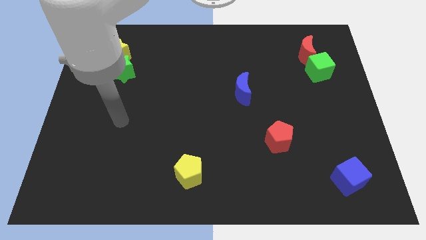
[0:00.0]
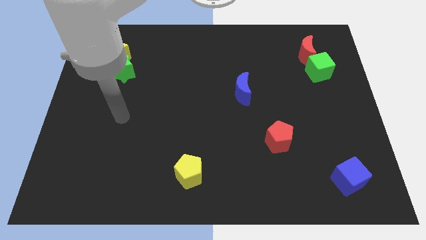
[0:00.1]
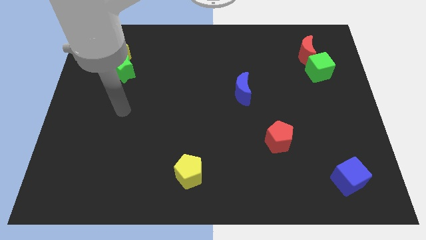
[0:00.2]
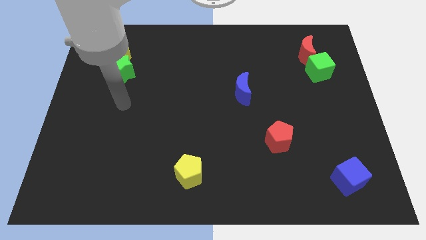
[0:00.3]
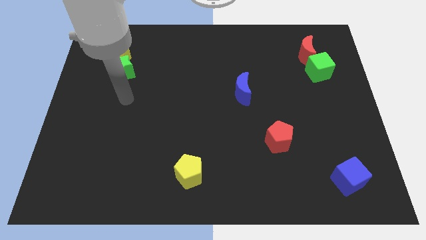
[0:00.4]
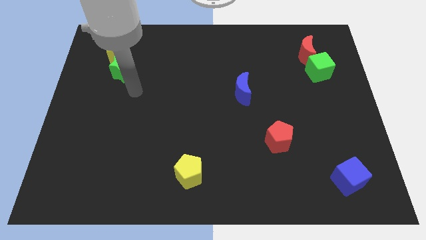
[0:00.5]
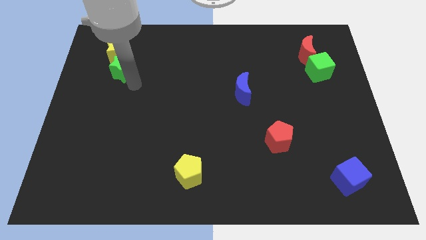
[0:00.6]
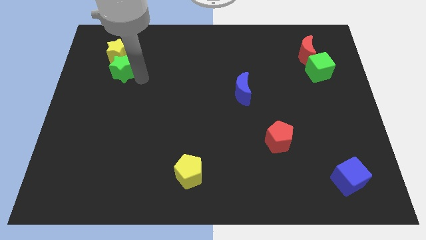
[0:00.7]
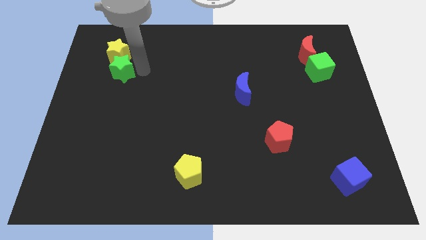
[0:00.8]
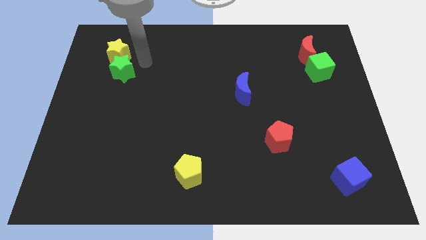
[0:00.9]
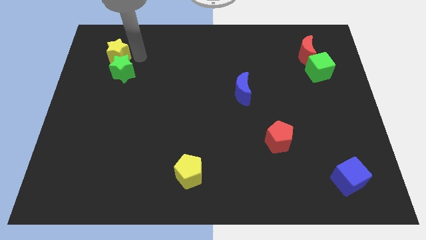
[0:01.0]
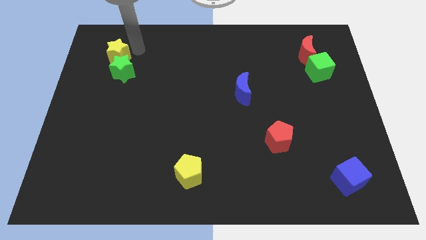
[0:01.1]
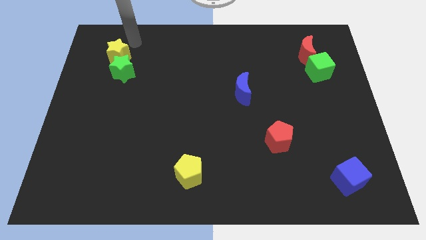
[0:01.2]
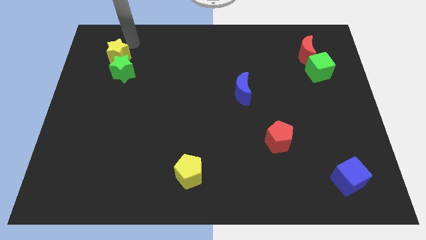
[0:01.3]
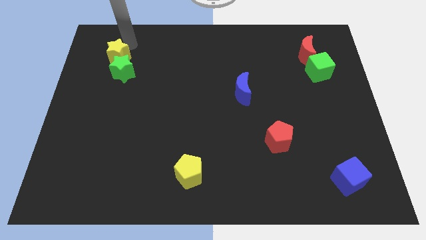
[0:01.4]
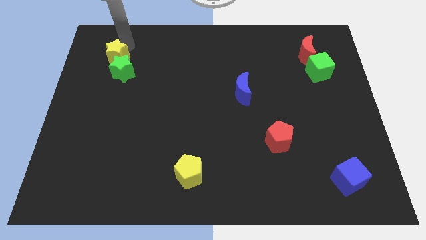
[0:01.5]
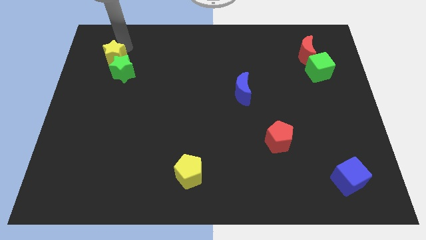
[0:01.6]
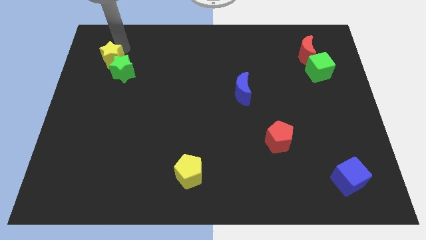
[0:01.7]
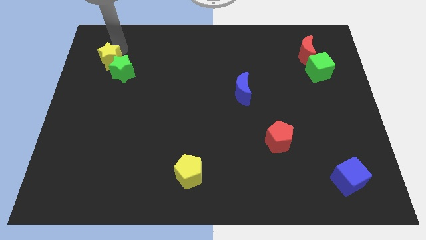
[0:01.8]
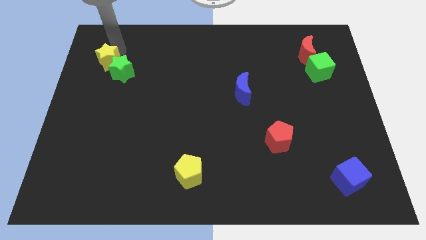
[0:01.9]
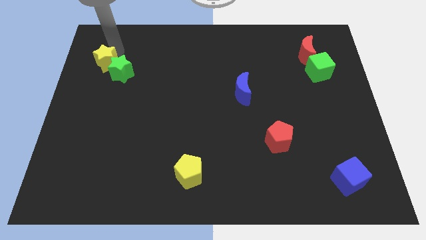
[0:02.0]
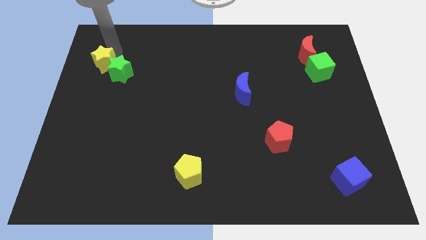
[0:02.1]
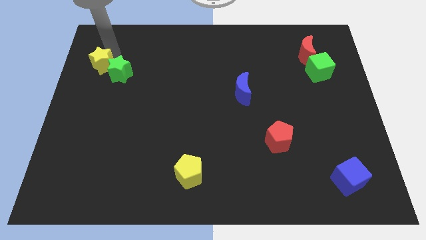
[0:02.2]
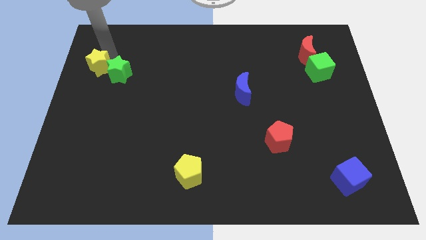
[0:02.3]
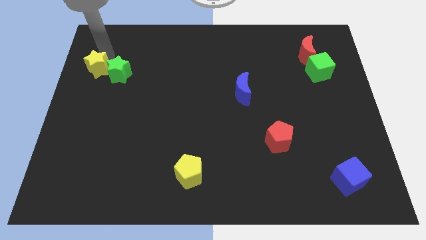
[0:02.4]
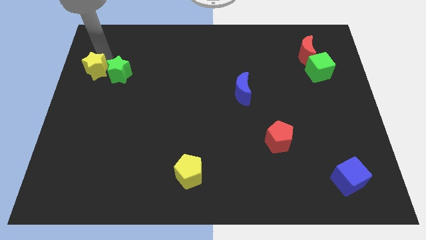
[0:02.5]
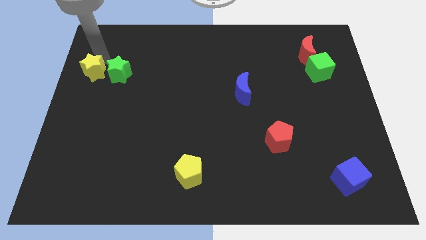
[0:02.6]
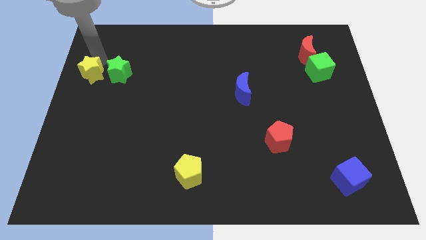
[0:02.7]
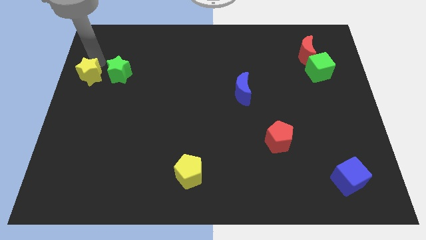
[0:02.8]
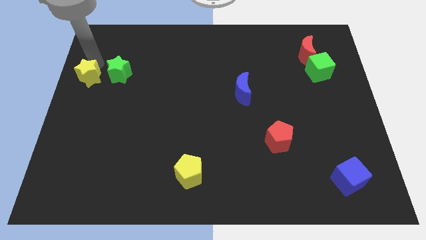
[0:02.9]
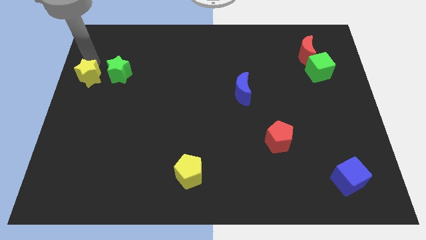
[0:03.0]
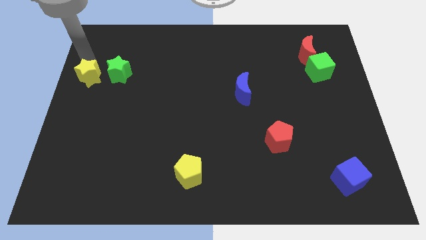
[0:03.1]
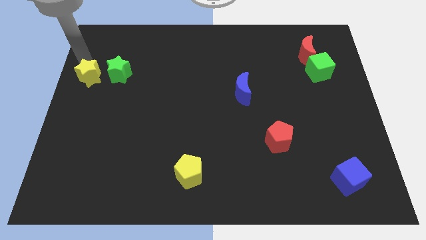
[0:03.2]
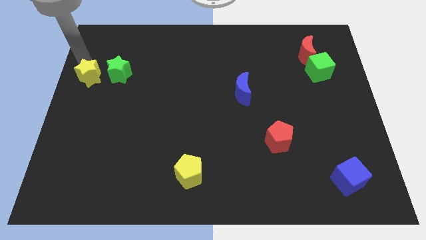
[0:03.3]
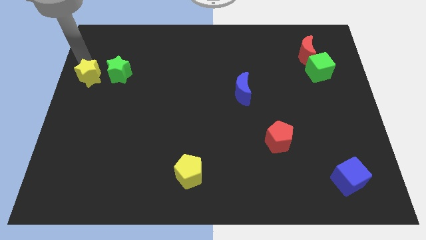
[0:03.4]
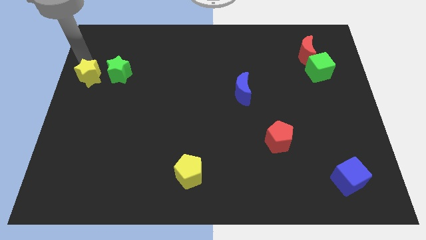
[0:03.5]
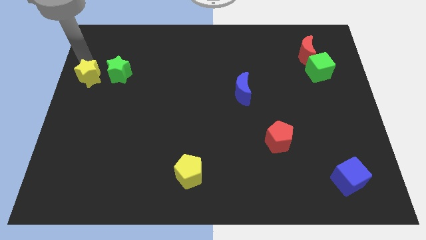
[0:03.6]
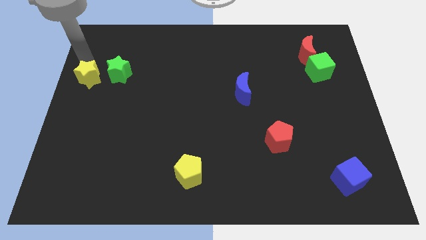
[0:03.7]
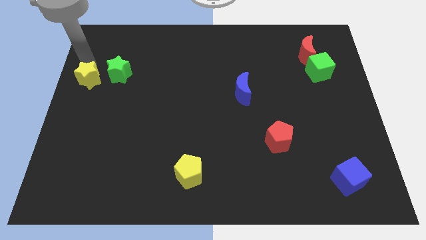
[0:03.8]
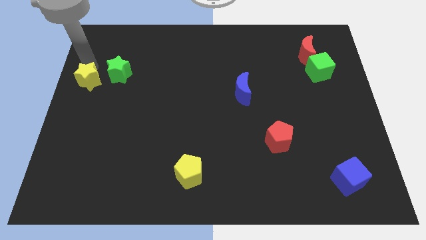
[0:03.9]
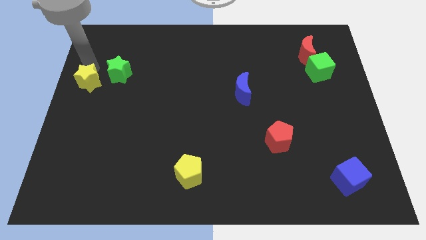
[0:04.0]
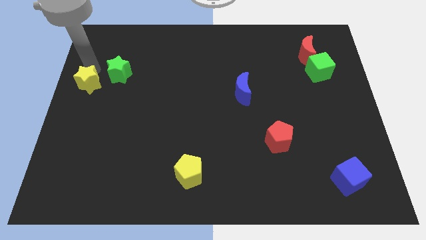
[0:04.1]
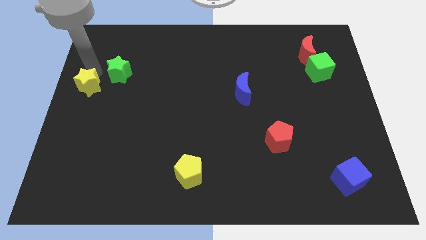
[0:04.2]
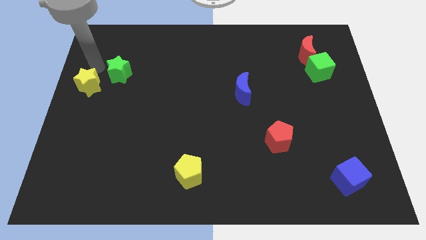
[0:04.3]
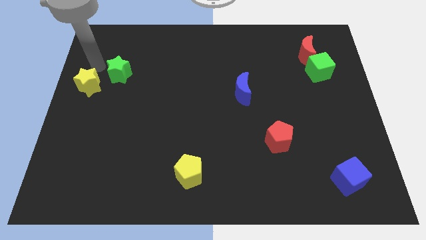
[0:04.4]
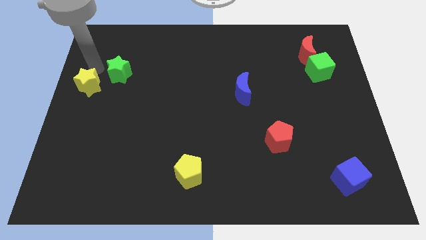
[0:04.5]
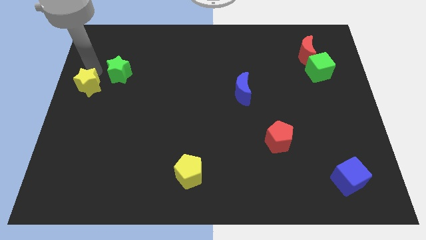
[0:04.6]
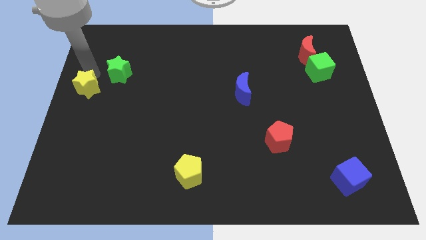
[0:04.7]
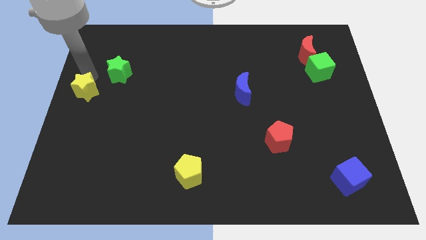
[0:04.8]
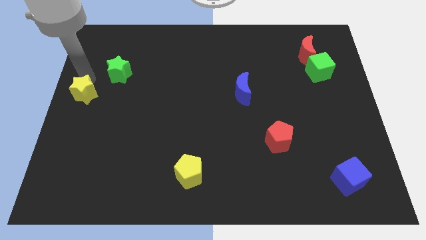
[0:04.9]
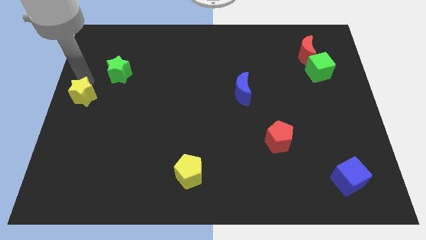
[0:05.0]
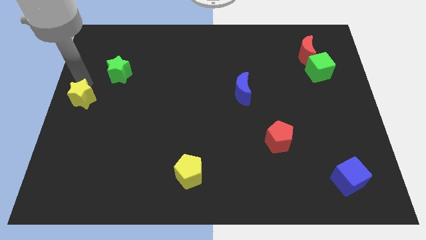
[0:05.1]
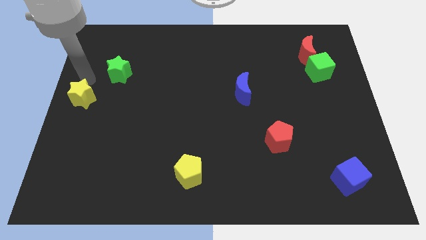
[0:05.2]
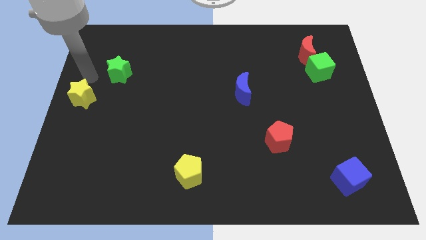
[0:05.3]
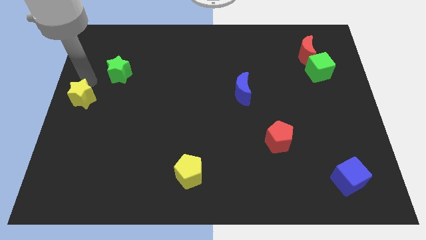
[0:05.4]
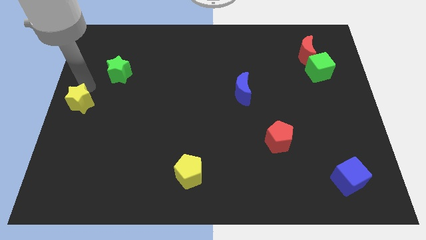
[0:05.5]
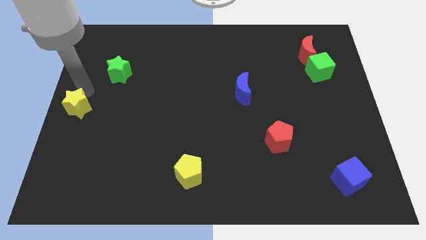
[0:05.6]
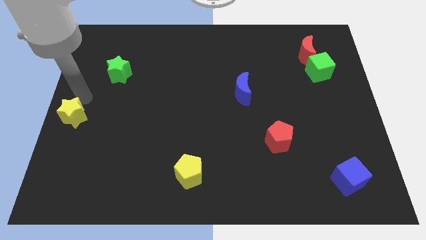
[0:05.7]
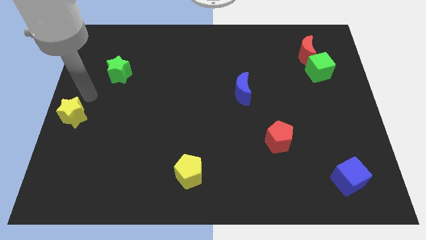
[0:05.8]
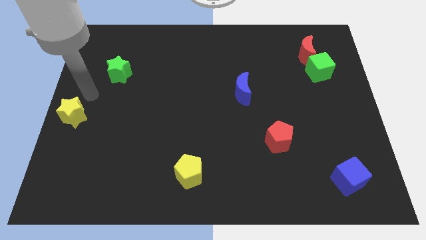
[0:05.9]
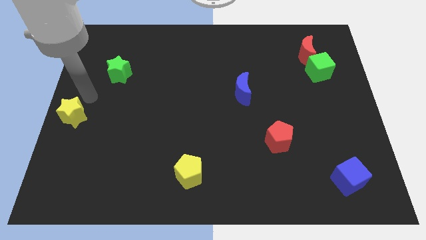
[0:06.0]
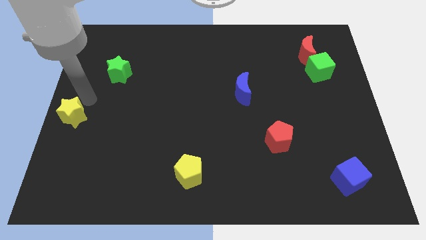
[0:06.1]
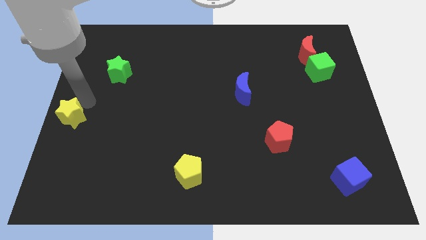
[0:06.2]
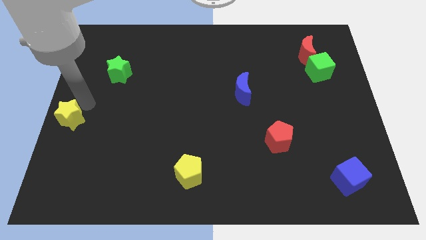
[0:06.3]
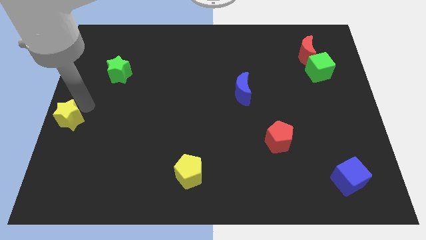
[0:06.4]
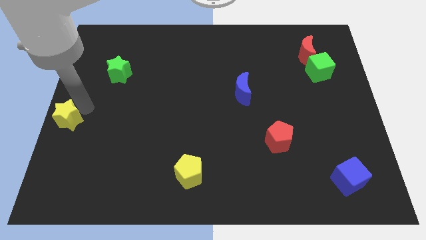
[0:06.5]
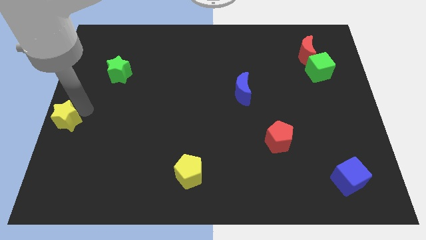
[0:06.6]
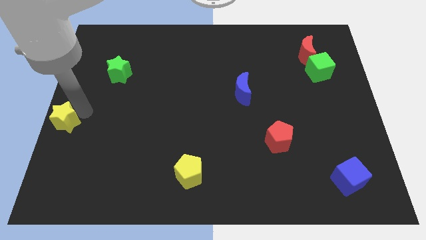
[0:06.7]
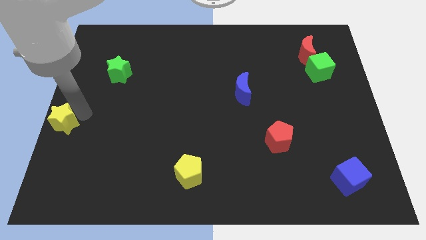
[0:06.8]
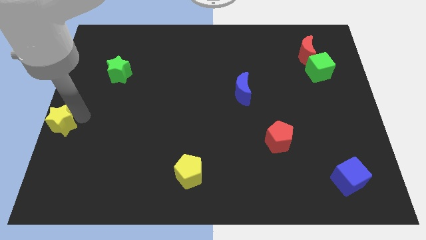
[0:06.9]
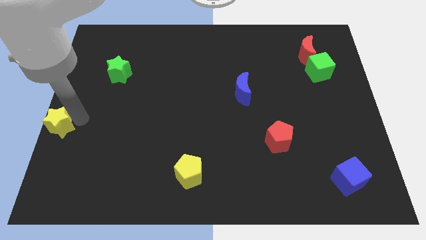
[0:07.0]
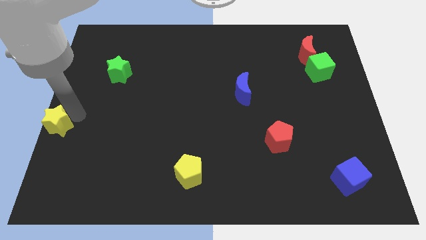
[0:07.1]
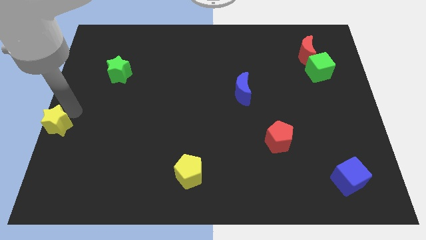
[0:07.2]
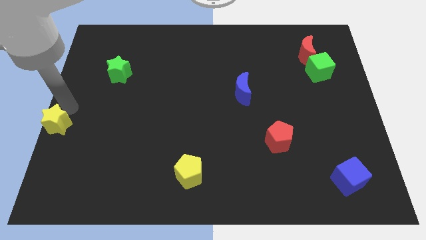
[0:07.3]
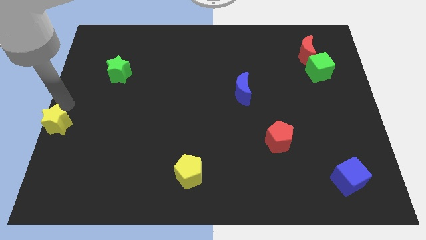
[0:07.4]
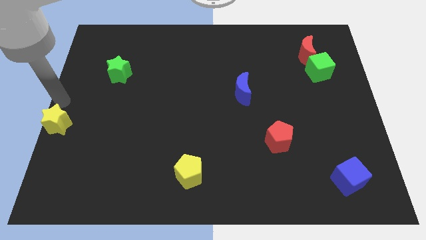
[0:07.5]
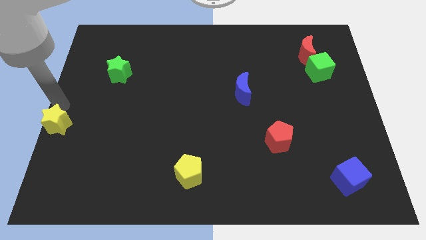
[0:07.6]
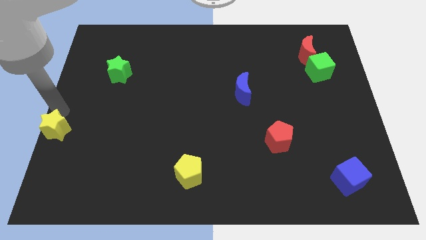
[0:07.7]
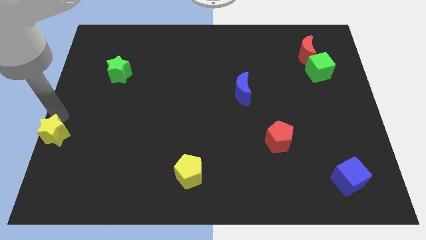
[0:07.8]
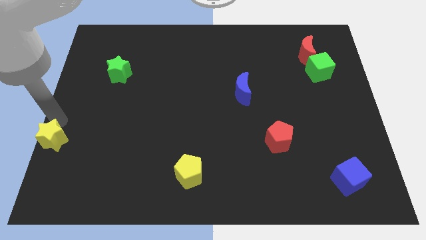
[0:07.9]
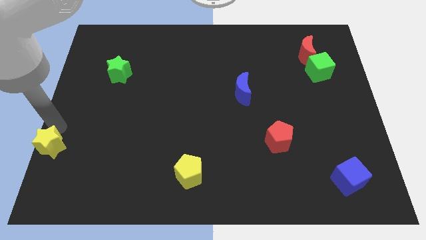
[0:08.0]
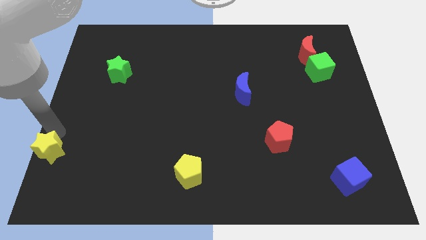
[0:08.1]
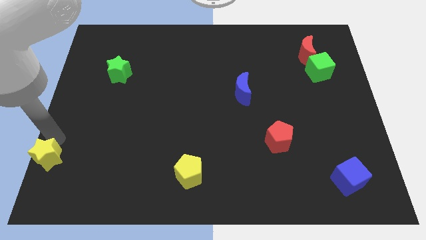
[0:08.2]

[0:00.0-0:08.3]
push the yellow star to the bottom left corner
